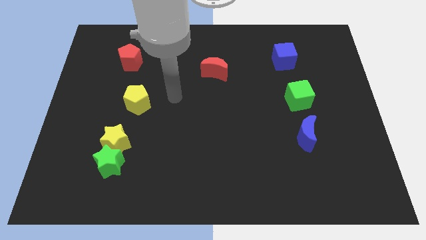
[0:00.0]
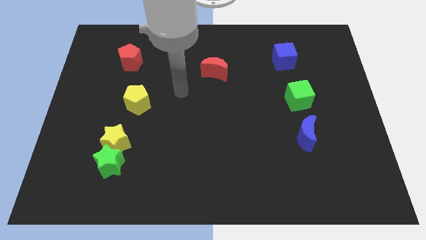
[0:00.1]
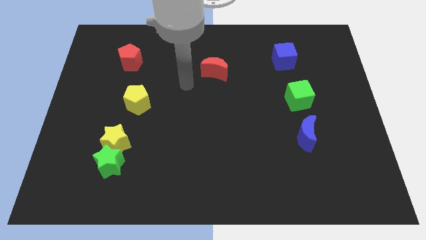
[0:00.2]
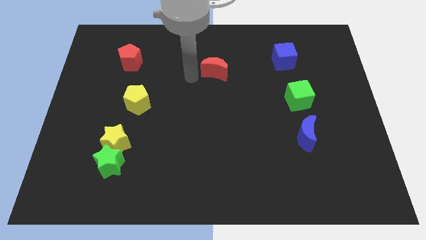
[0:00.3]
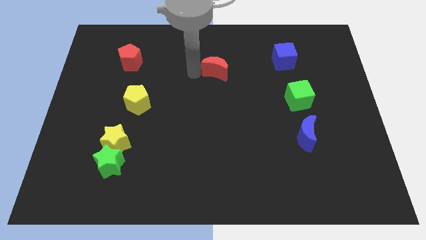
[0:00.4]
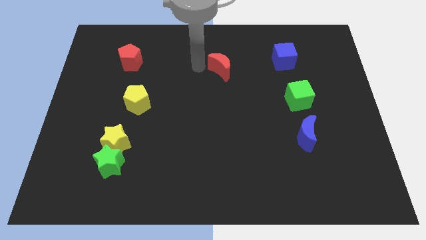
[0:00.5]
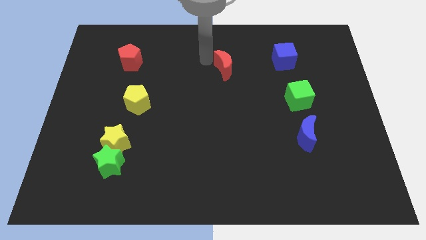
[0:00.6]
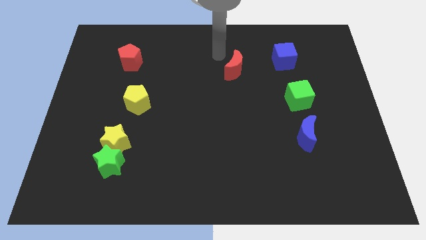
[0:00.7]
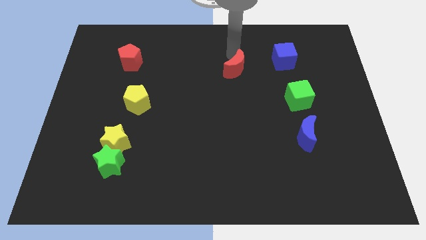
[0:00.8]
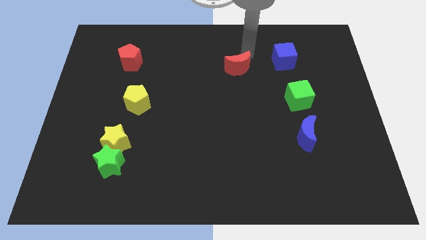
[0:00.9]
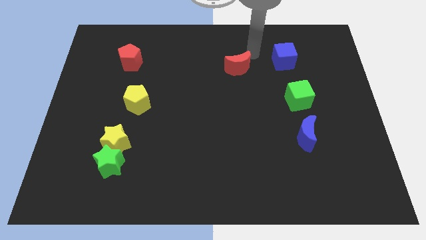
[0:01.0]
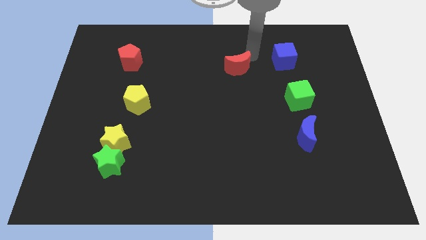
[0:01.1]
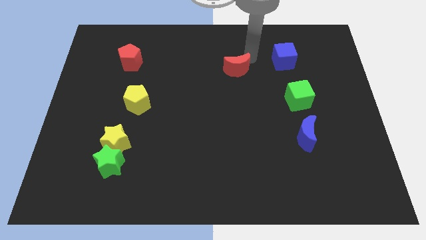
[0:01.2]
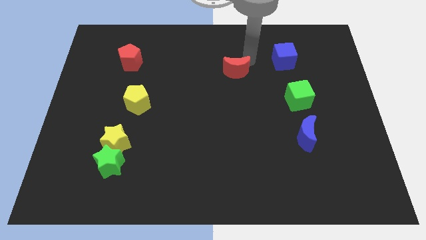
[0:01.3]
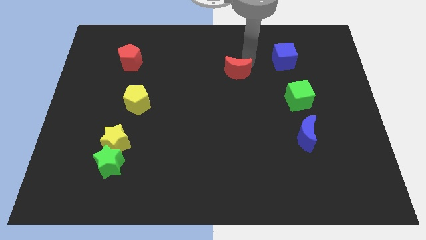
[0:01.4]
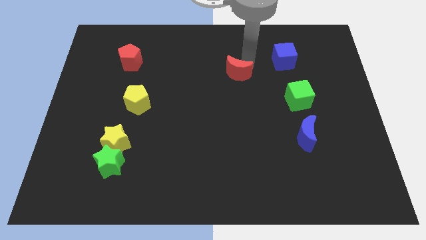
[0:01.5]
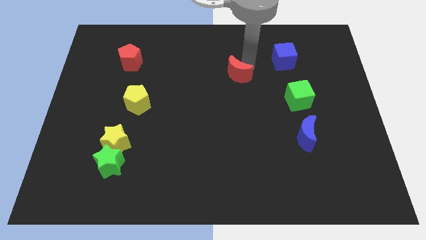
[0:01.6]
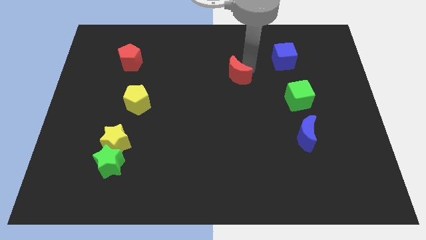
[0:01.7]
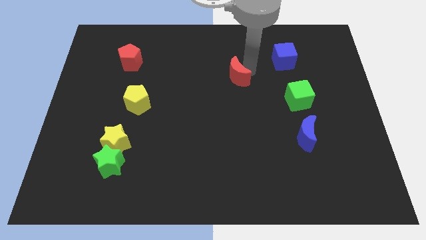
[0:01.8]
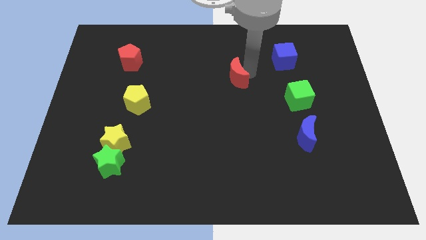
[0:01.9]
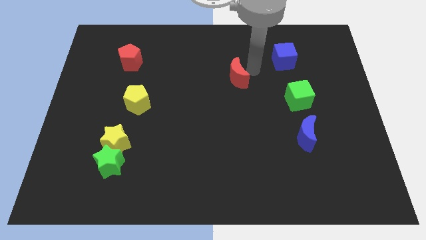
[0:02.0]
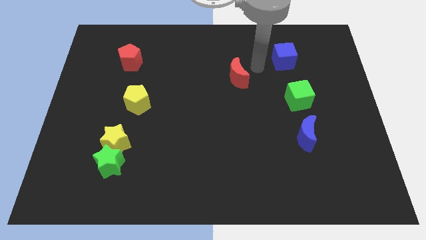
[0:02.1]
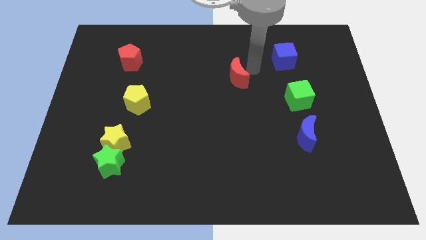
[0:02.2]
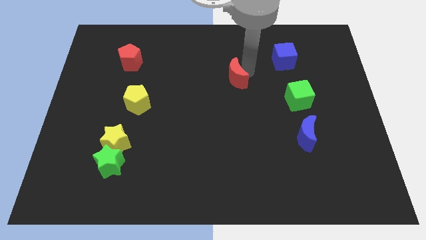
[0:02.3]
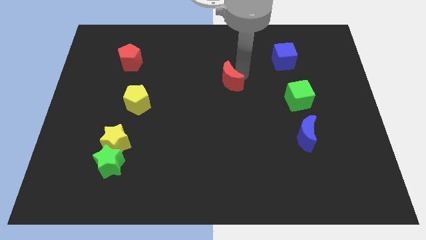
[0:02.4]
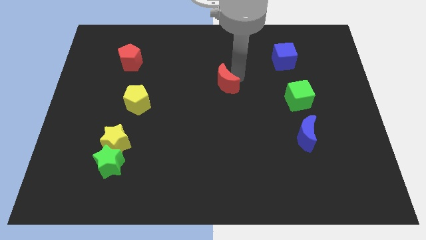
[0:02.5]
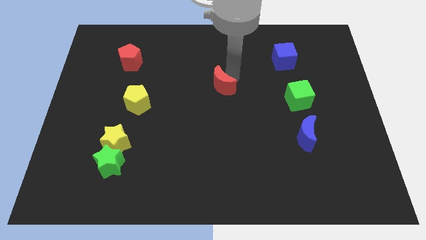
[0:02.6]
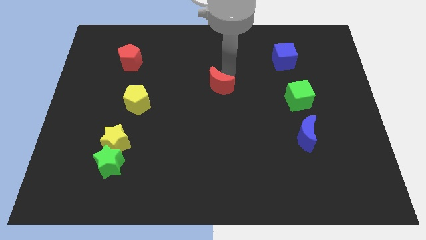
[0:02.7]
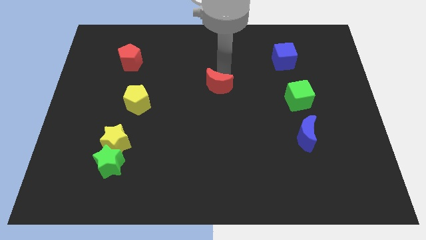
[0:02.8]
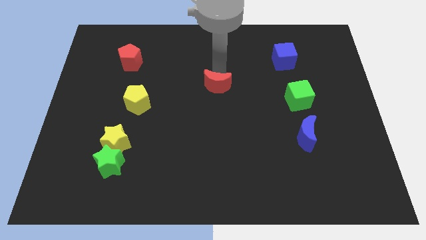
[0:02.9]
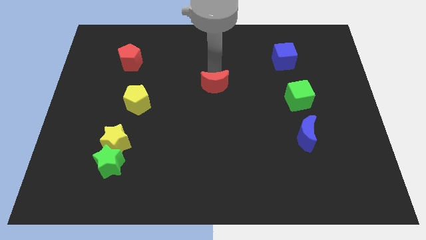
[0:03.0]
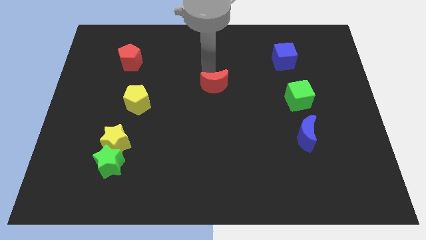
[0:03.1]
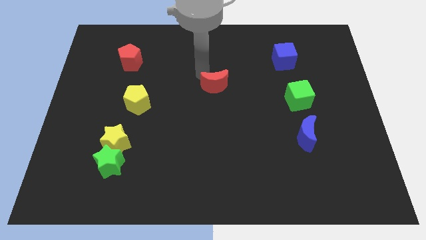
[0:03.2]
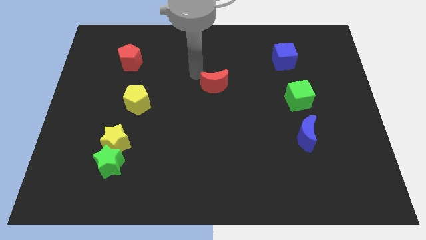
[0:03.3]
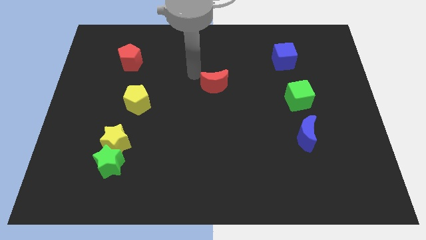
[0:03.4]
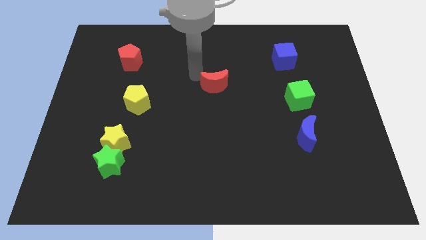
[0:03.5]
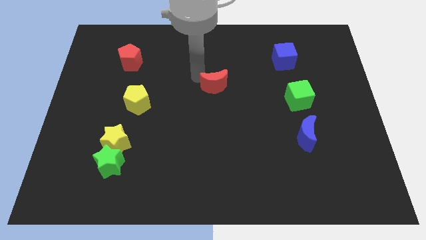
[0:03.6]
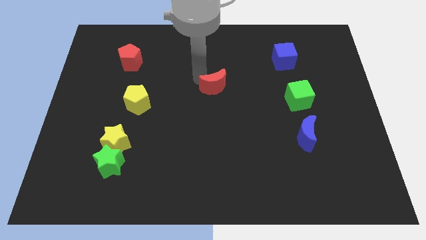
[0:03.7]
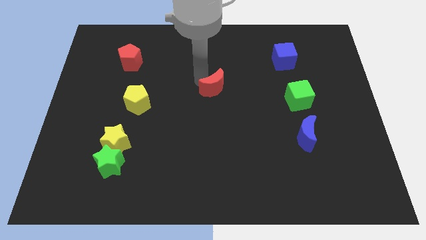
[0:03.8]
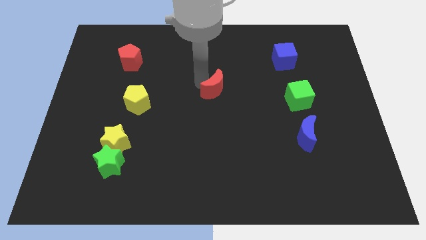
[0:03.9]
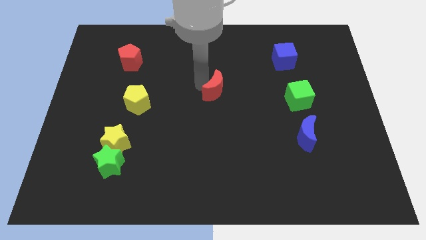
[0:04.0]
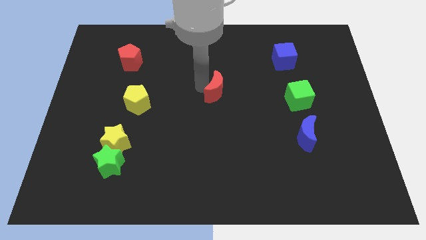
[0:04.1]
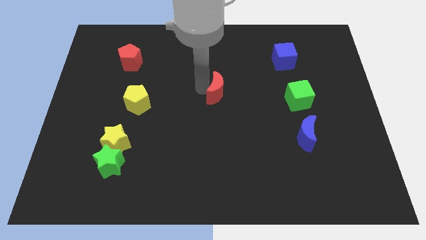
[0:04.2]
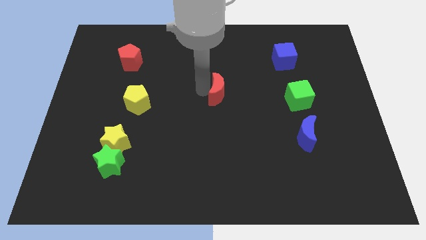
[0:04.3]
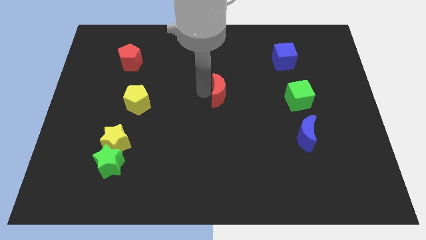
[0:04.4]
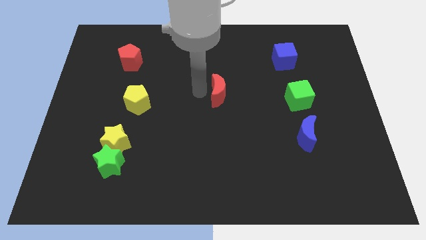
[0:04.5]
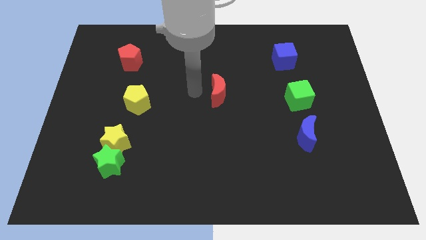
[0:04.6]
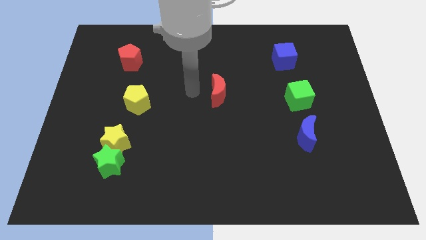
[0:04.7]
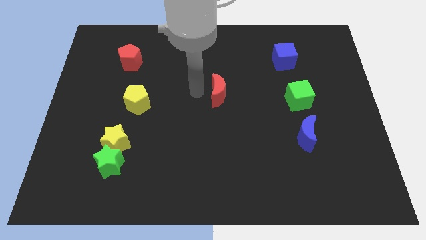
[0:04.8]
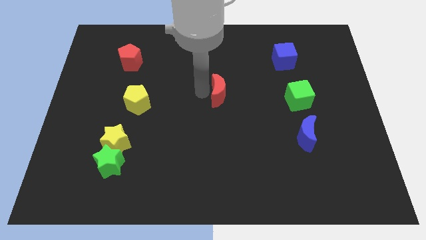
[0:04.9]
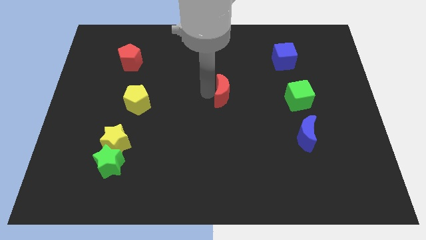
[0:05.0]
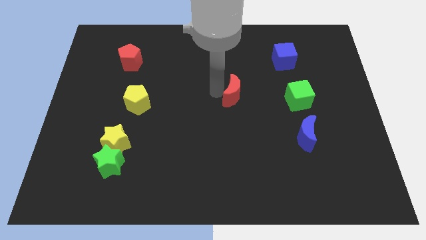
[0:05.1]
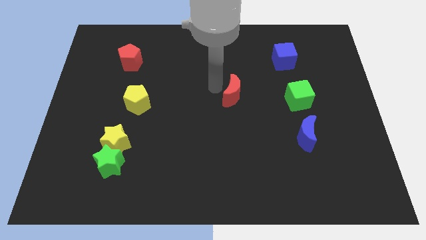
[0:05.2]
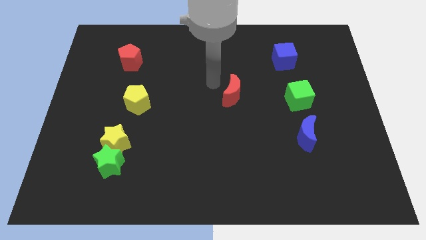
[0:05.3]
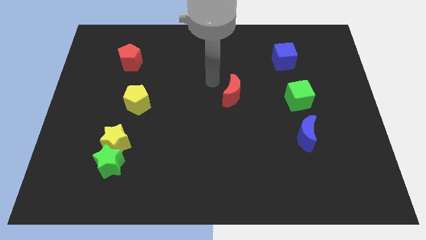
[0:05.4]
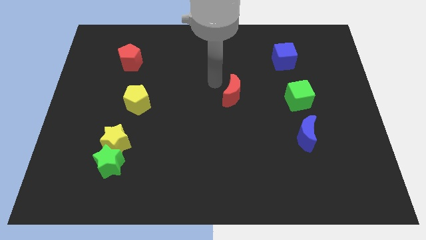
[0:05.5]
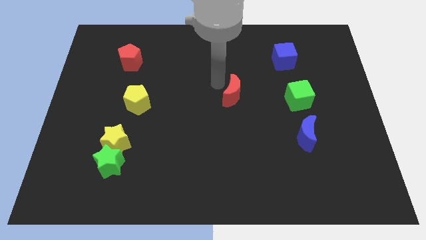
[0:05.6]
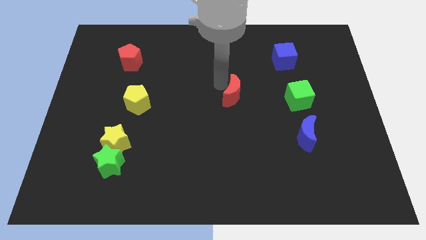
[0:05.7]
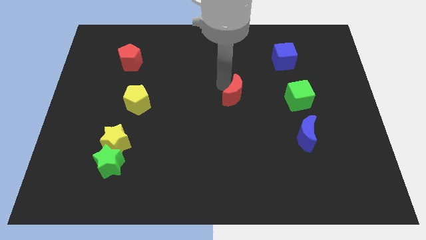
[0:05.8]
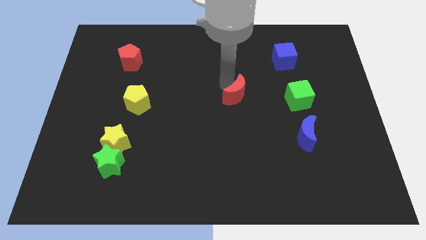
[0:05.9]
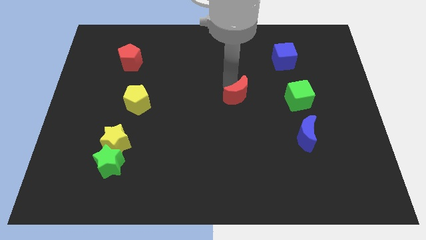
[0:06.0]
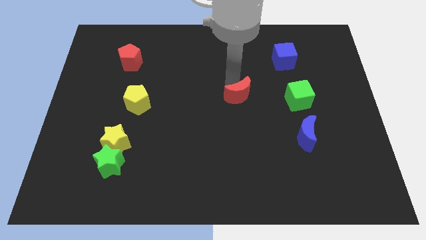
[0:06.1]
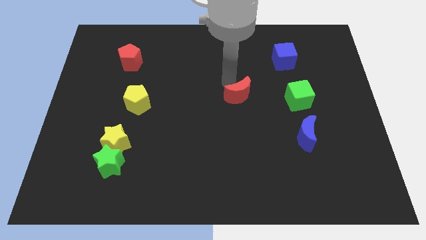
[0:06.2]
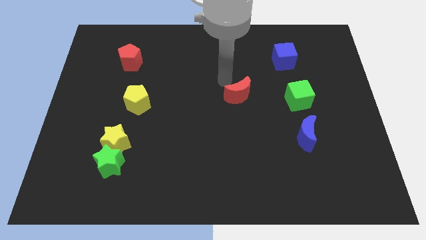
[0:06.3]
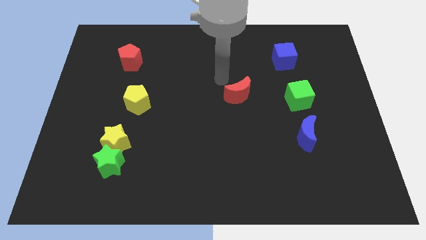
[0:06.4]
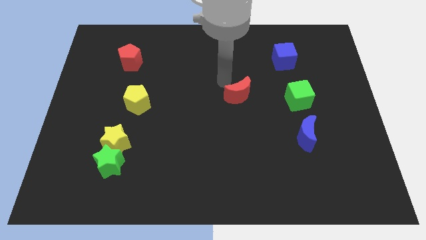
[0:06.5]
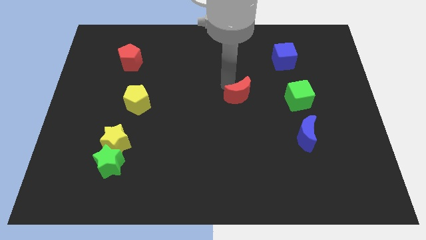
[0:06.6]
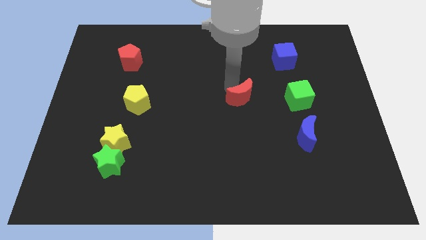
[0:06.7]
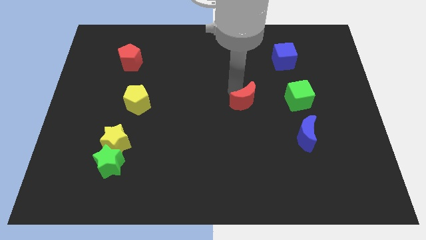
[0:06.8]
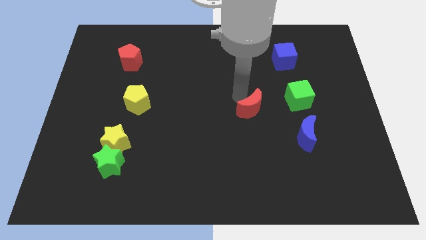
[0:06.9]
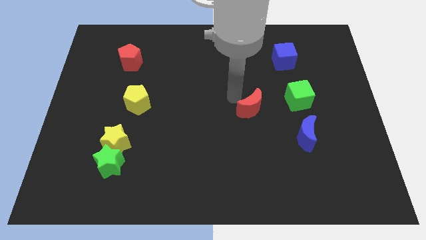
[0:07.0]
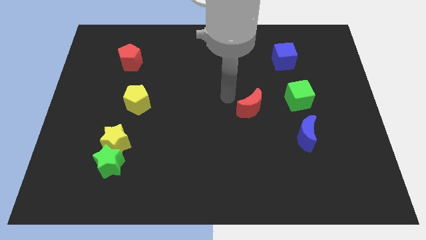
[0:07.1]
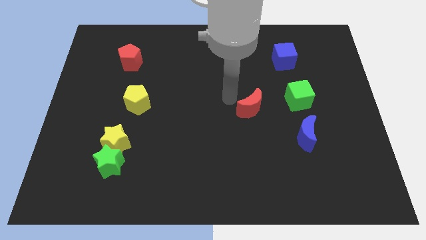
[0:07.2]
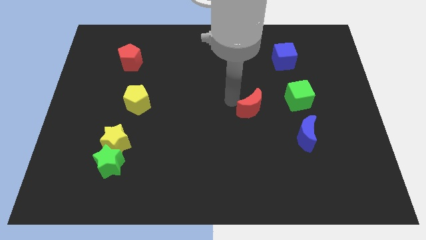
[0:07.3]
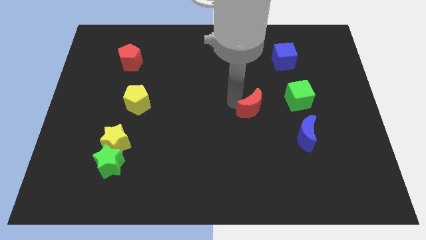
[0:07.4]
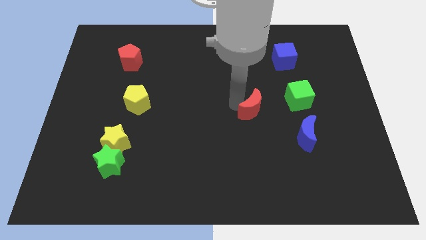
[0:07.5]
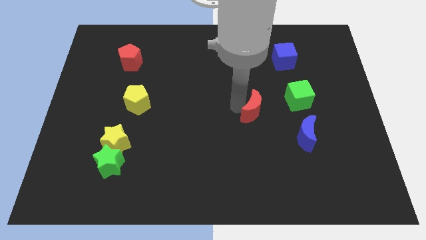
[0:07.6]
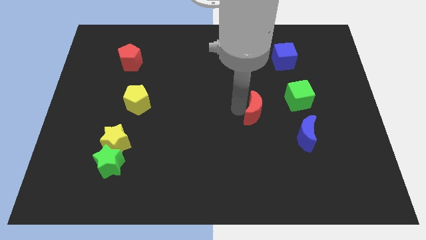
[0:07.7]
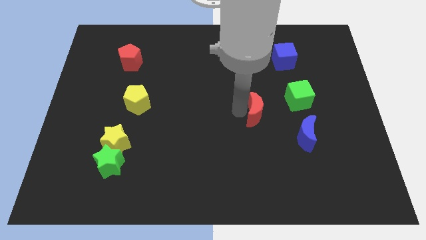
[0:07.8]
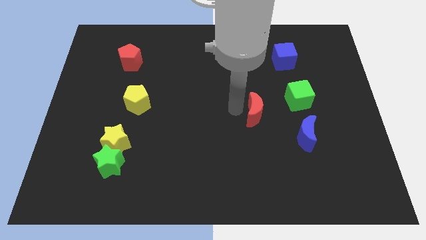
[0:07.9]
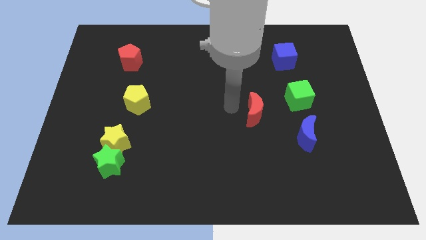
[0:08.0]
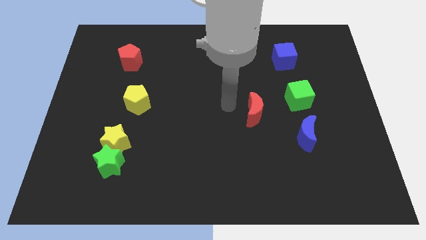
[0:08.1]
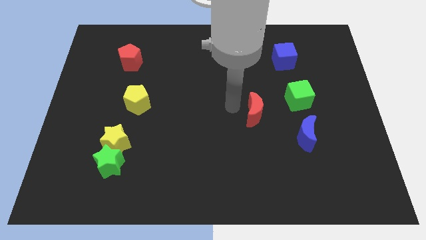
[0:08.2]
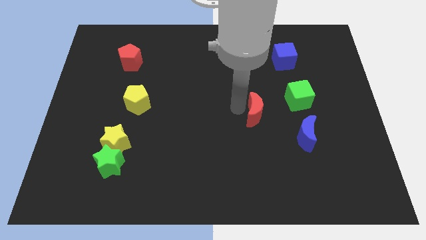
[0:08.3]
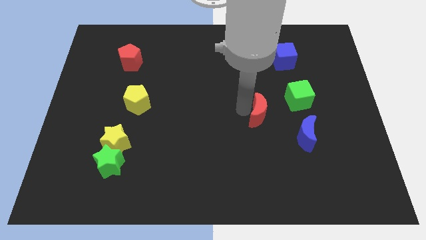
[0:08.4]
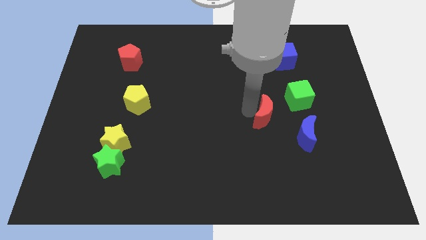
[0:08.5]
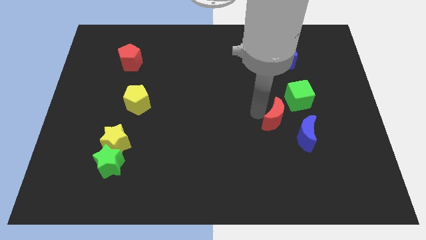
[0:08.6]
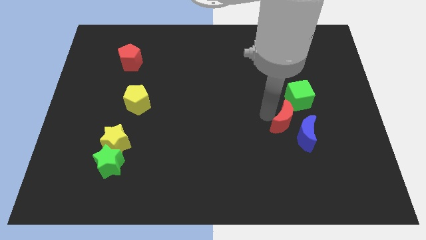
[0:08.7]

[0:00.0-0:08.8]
move the red moon to the blue moon
